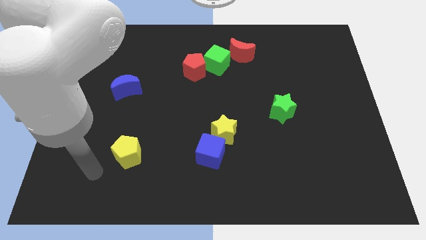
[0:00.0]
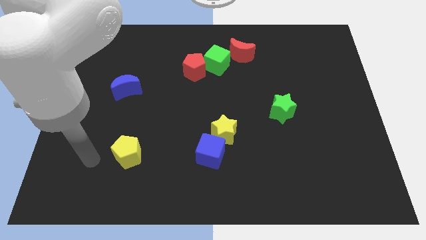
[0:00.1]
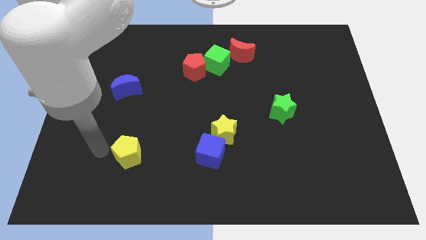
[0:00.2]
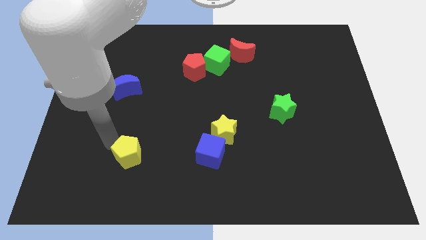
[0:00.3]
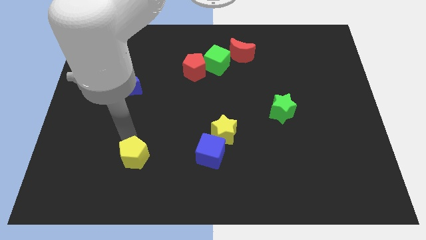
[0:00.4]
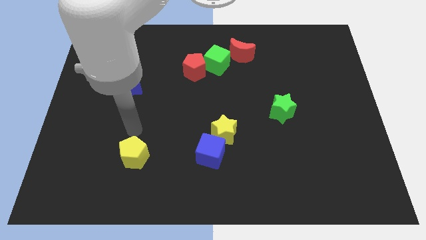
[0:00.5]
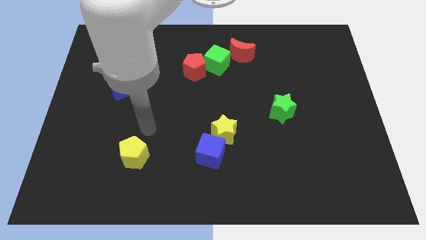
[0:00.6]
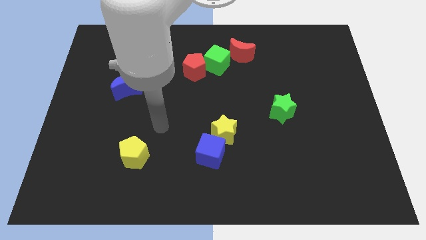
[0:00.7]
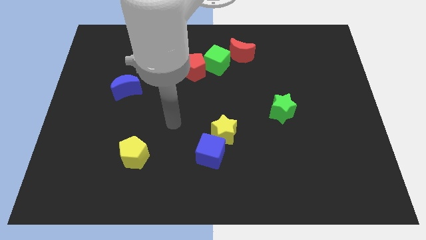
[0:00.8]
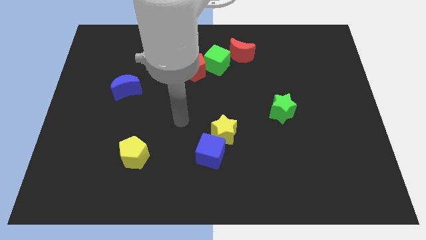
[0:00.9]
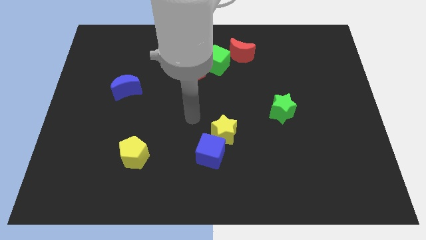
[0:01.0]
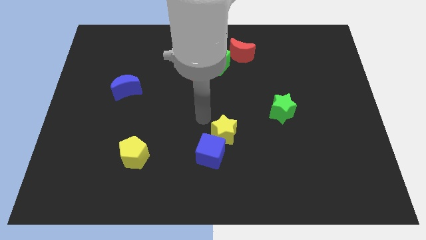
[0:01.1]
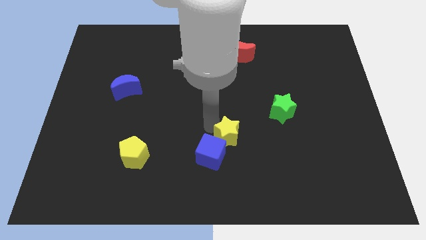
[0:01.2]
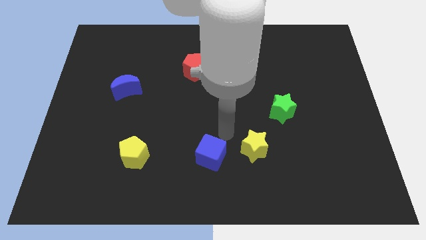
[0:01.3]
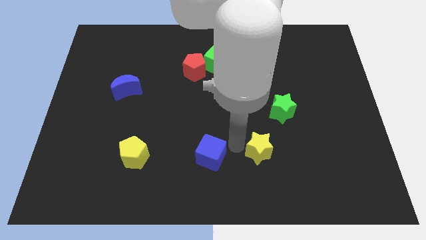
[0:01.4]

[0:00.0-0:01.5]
pull the blue cube apart from the yellow star

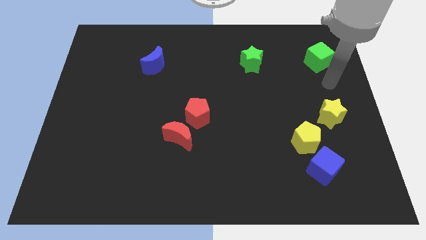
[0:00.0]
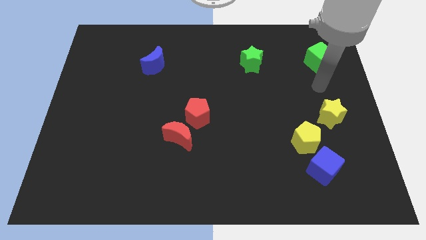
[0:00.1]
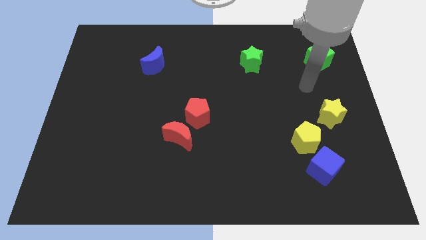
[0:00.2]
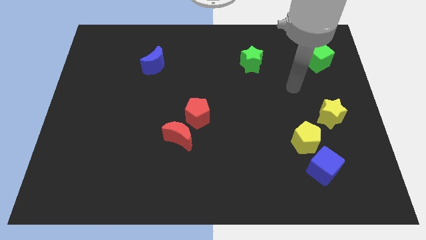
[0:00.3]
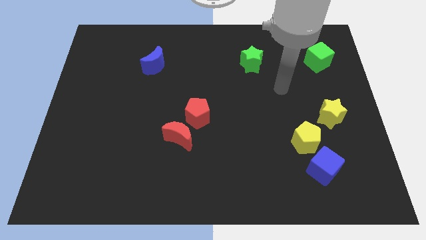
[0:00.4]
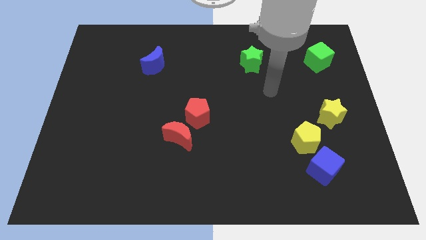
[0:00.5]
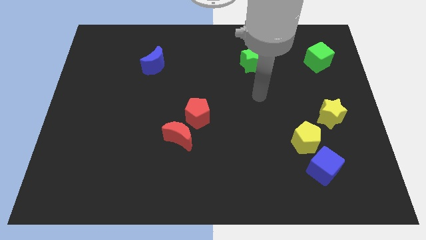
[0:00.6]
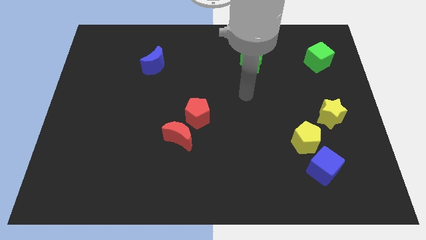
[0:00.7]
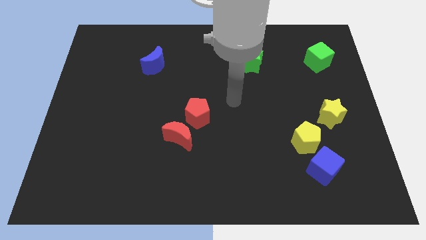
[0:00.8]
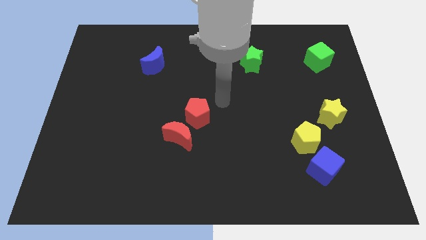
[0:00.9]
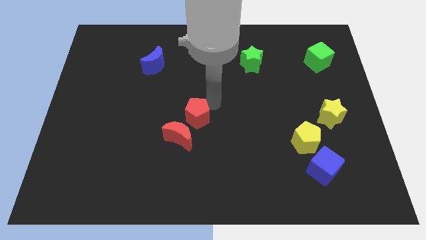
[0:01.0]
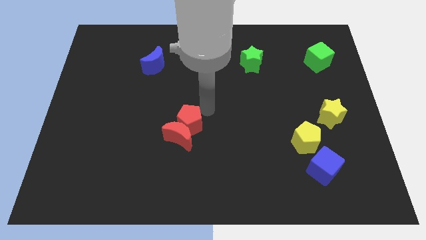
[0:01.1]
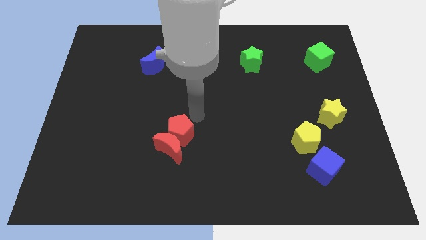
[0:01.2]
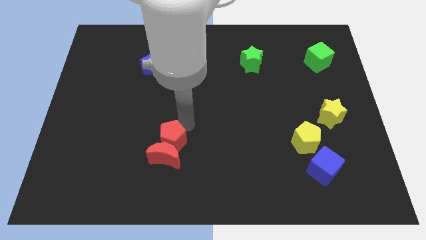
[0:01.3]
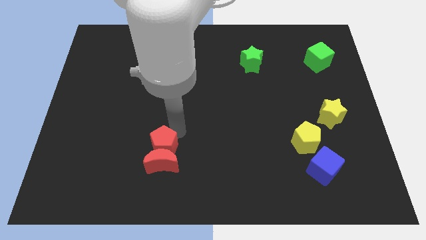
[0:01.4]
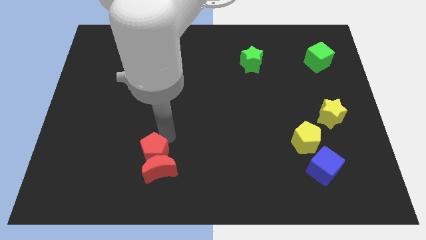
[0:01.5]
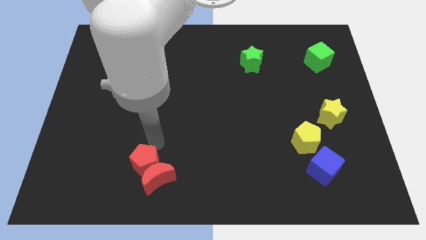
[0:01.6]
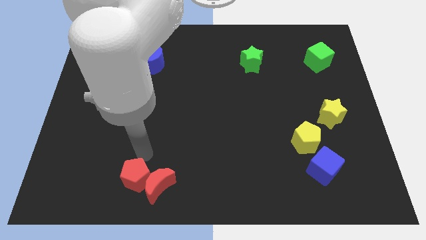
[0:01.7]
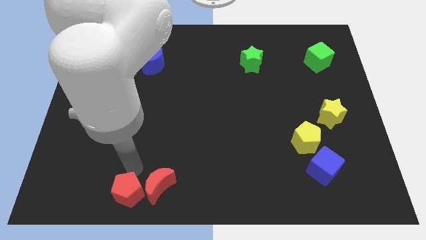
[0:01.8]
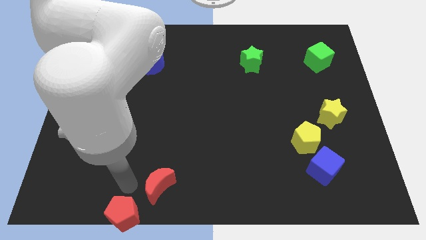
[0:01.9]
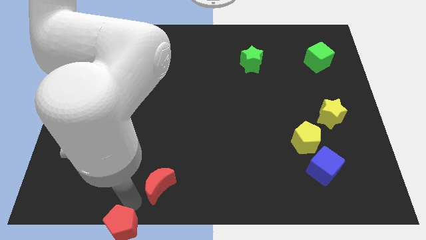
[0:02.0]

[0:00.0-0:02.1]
move the red moon away from the red pentagon

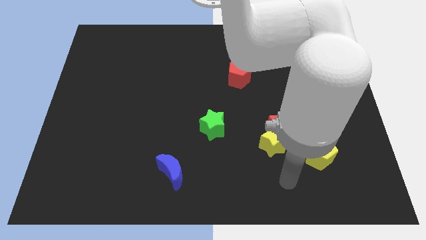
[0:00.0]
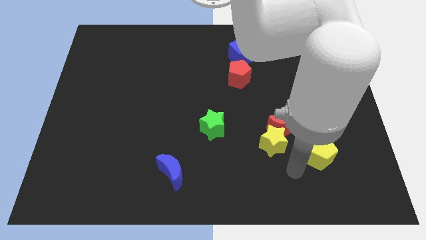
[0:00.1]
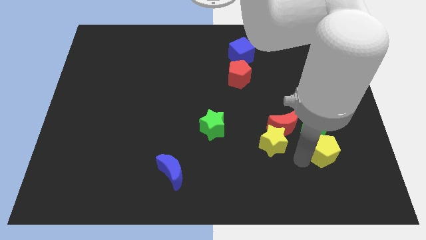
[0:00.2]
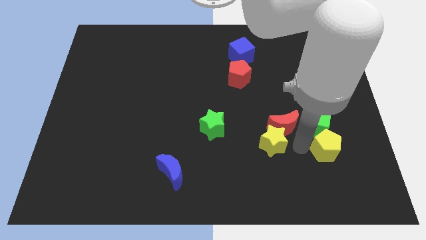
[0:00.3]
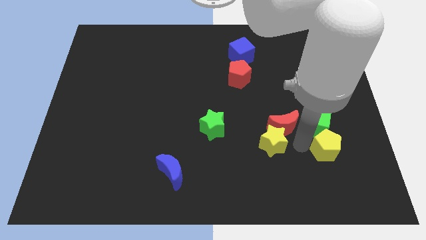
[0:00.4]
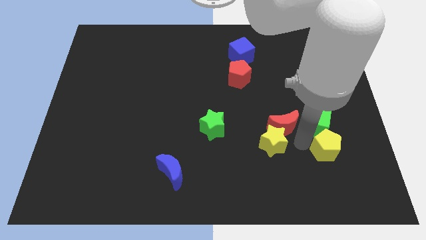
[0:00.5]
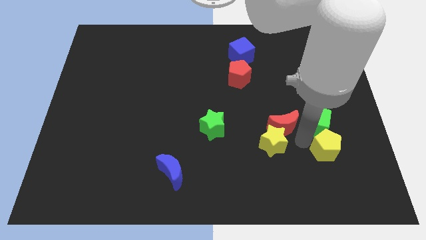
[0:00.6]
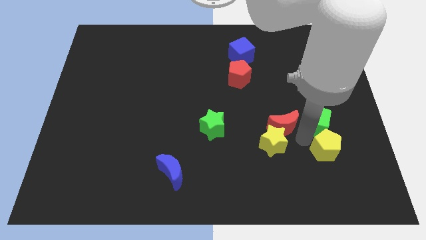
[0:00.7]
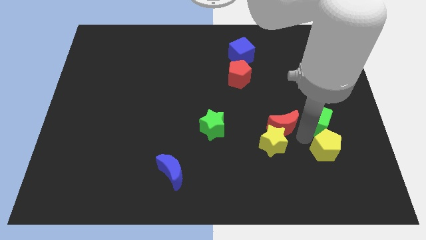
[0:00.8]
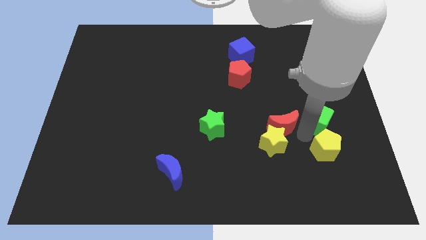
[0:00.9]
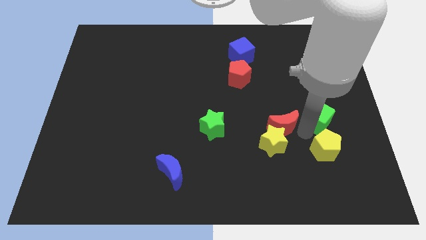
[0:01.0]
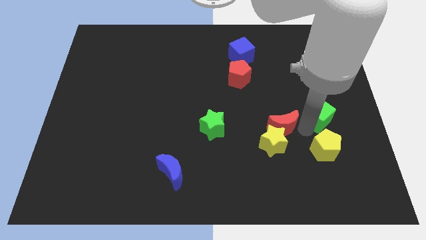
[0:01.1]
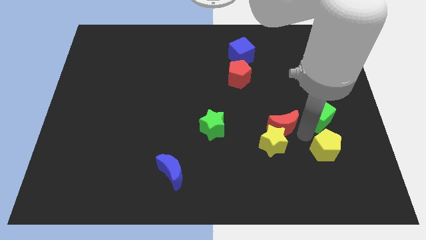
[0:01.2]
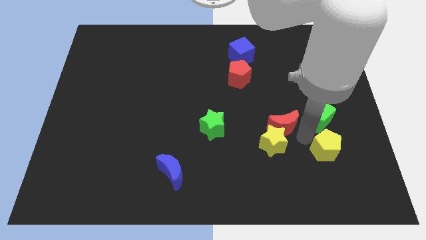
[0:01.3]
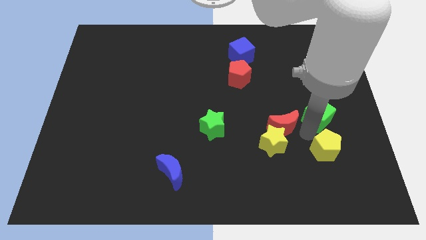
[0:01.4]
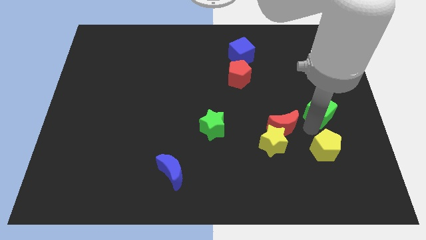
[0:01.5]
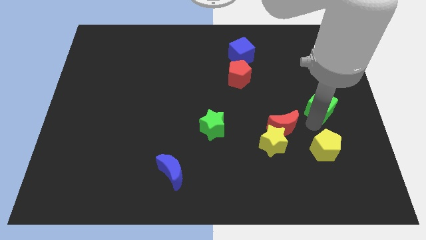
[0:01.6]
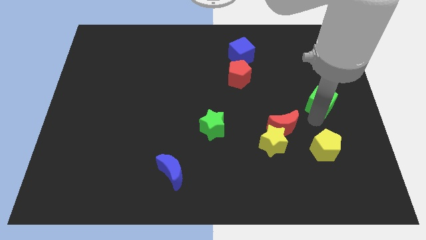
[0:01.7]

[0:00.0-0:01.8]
separate the green cube from the red moon and yellow pentagon

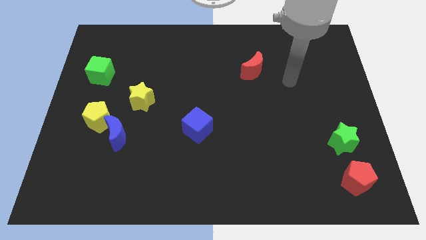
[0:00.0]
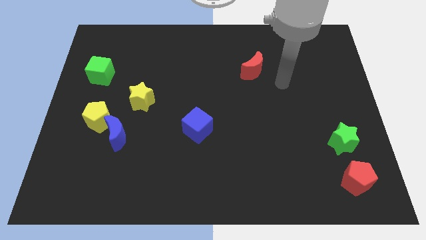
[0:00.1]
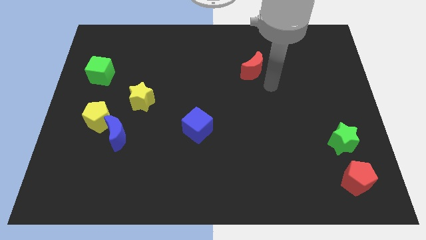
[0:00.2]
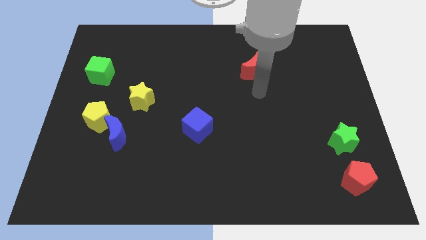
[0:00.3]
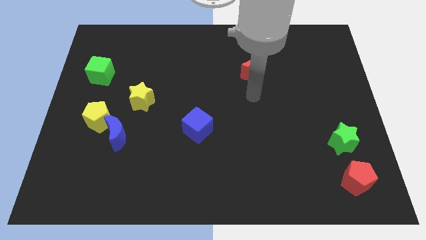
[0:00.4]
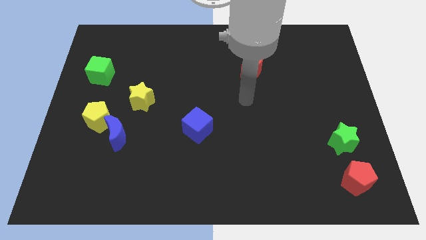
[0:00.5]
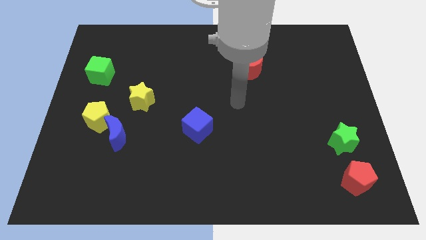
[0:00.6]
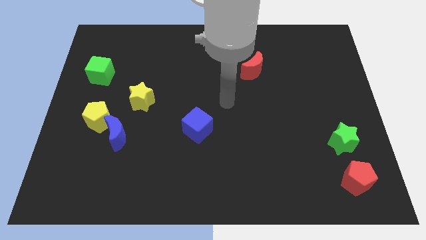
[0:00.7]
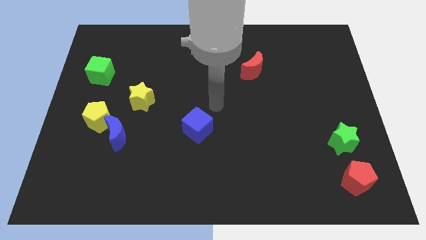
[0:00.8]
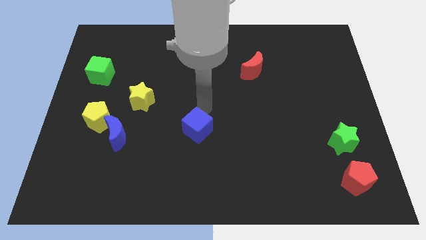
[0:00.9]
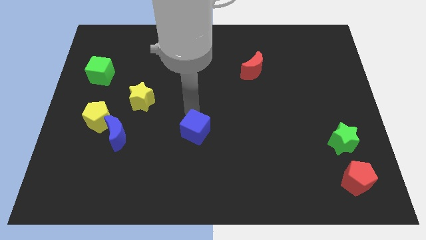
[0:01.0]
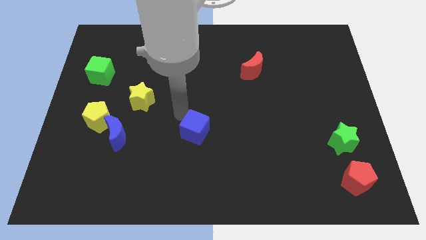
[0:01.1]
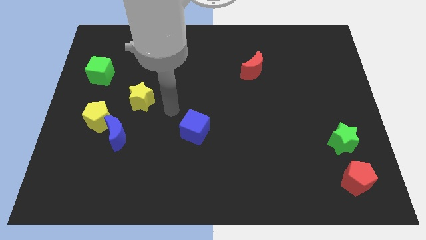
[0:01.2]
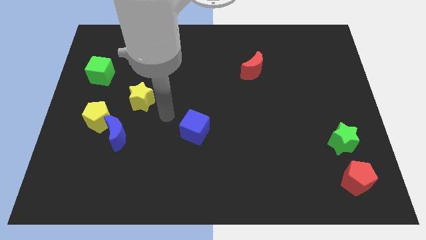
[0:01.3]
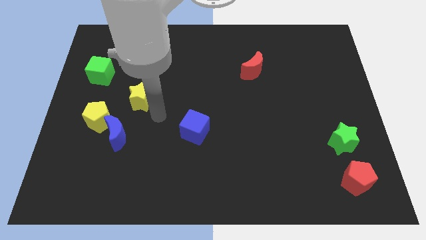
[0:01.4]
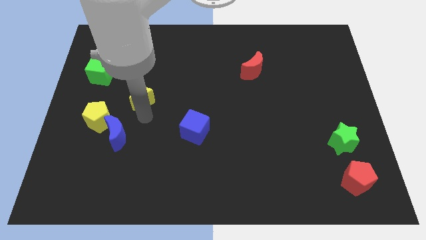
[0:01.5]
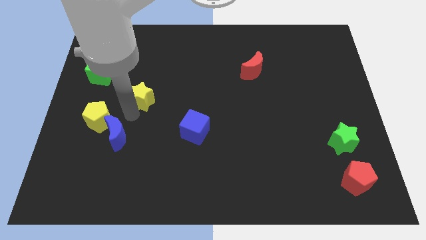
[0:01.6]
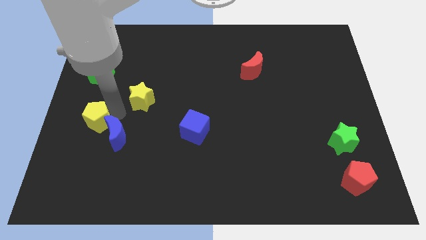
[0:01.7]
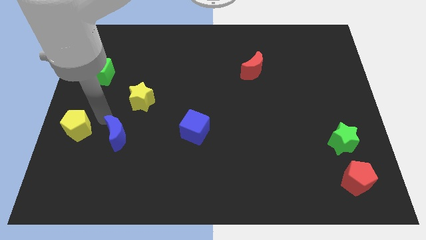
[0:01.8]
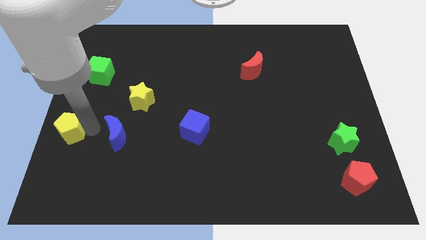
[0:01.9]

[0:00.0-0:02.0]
pull the blue moon apart from the yellow pentagon

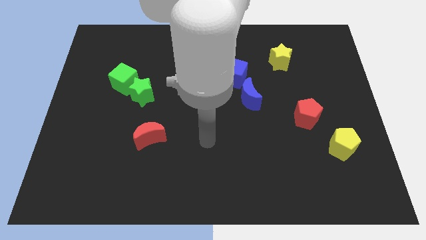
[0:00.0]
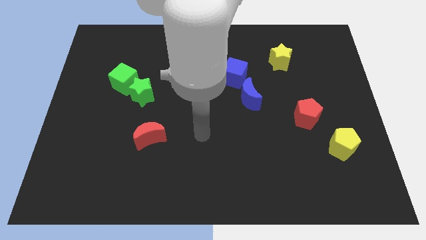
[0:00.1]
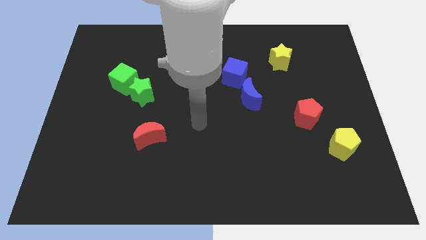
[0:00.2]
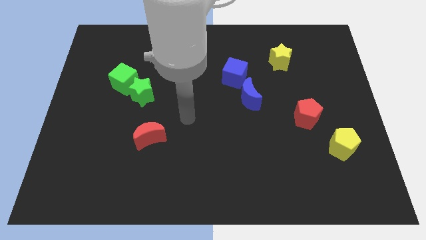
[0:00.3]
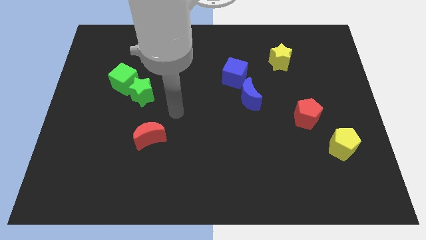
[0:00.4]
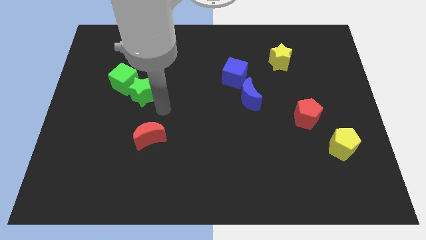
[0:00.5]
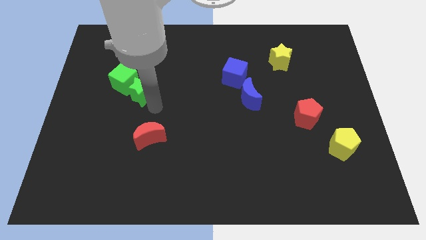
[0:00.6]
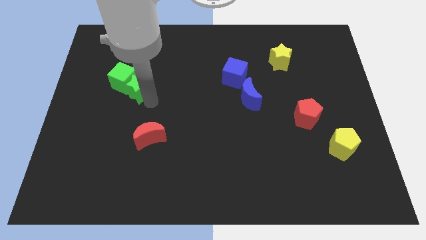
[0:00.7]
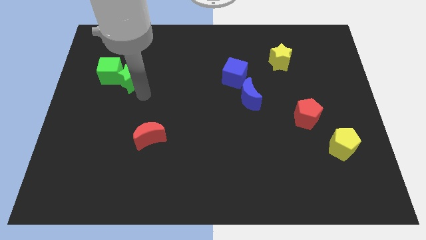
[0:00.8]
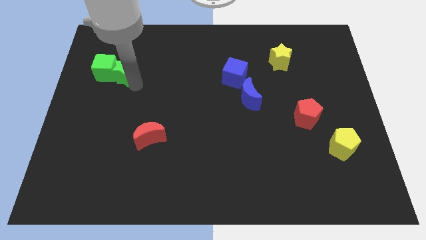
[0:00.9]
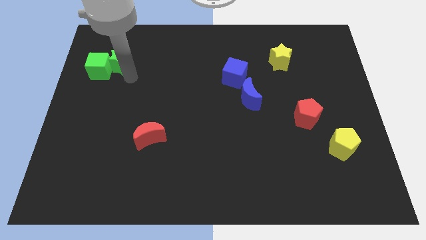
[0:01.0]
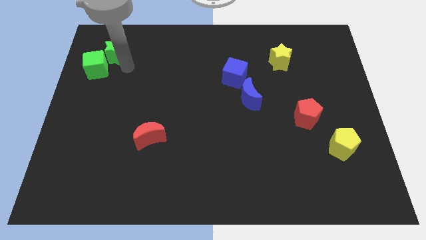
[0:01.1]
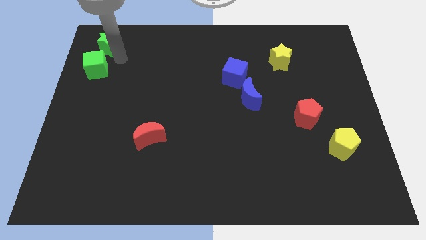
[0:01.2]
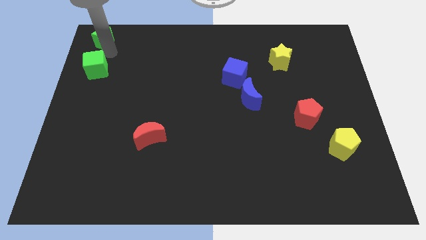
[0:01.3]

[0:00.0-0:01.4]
move the green cube away from the green star

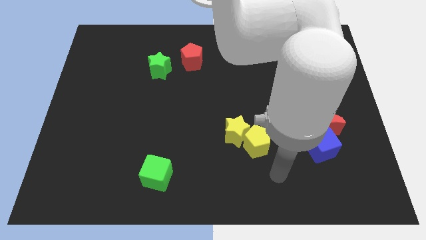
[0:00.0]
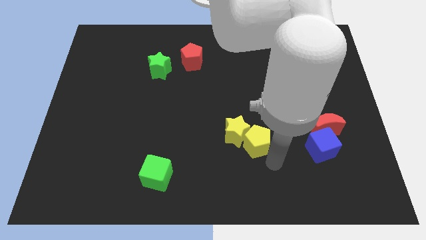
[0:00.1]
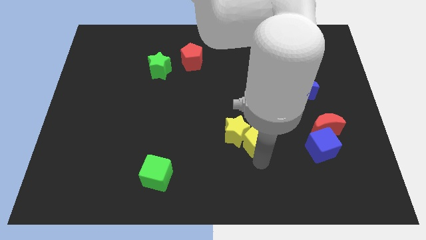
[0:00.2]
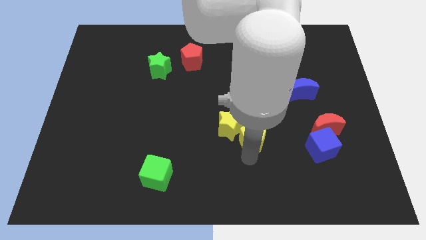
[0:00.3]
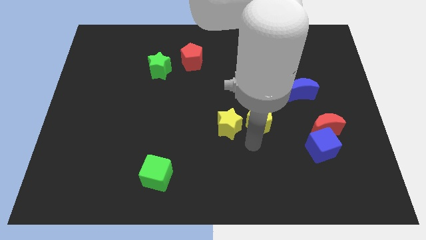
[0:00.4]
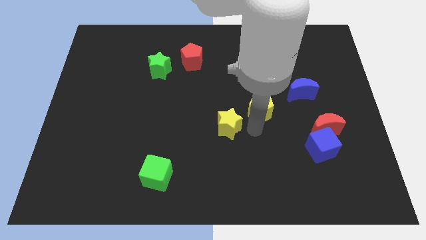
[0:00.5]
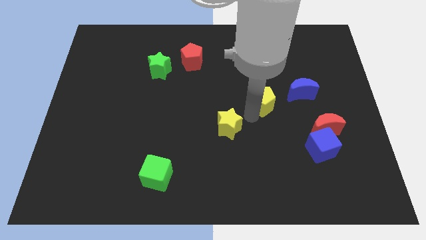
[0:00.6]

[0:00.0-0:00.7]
separate the yellow star from the yellow pentagon
